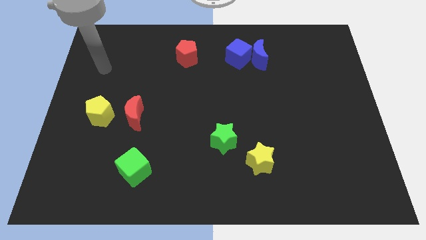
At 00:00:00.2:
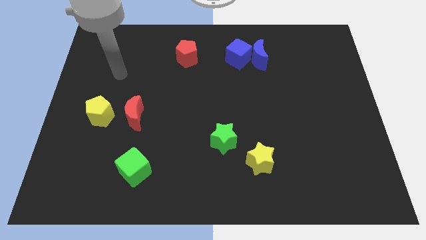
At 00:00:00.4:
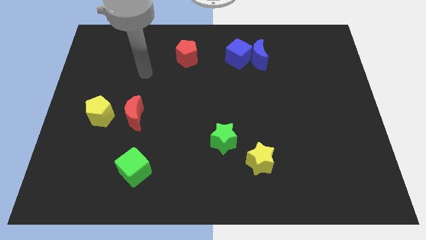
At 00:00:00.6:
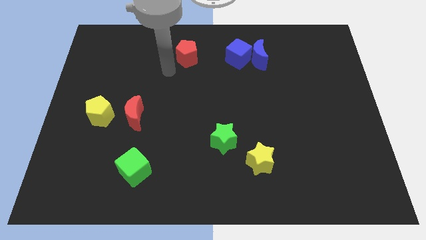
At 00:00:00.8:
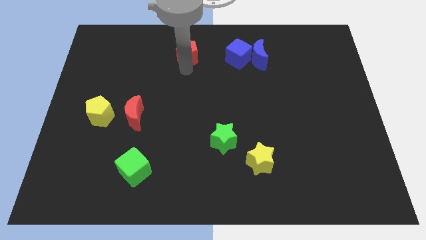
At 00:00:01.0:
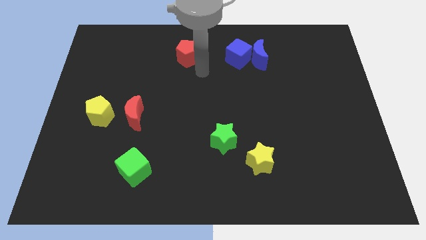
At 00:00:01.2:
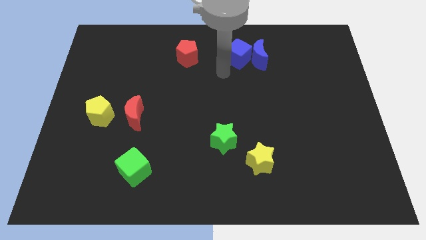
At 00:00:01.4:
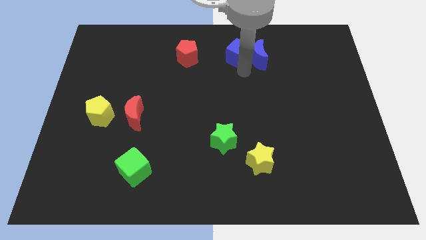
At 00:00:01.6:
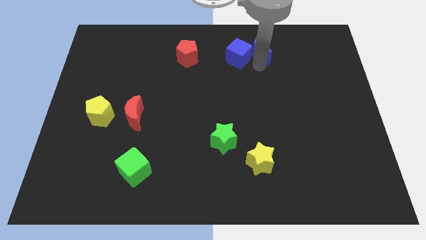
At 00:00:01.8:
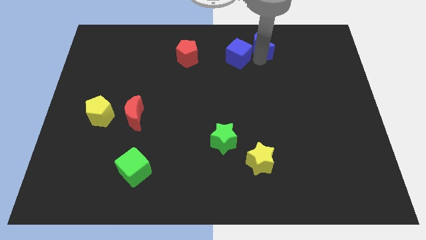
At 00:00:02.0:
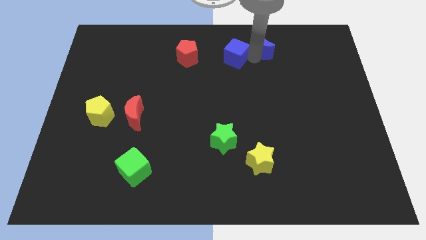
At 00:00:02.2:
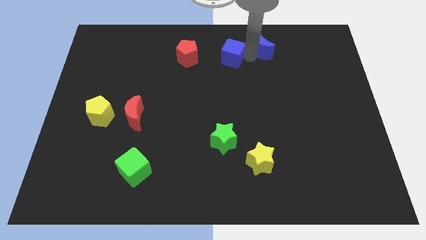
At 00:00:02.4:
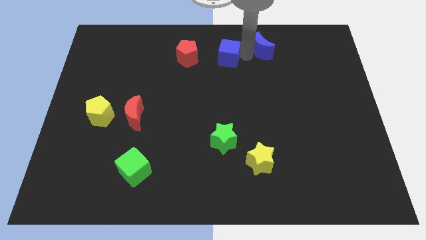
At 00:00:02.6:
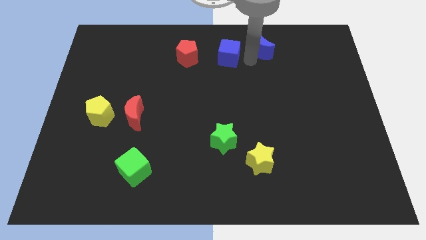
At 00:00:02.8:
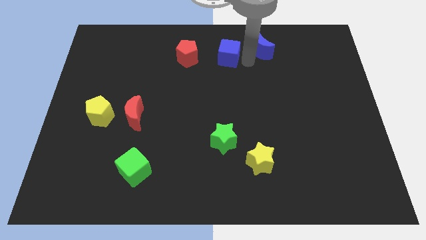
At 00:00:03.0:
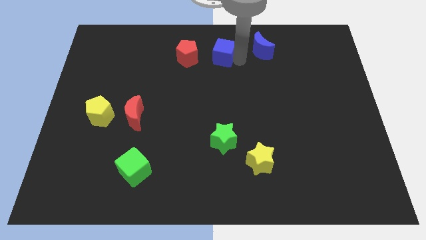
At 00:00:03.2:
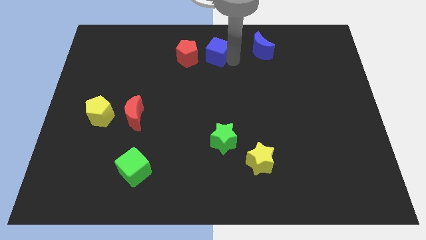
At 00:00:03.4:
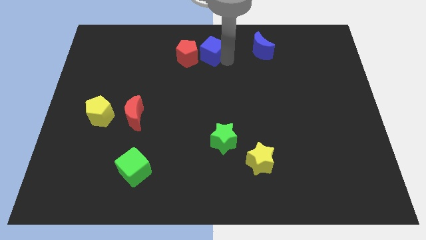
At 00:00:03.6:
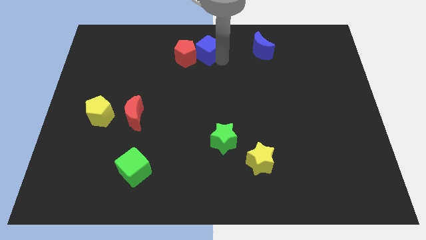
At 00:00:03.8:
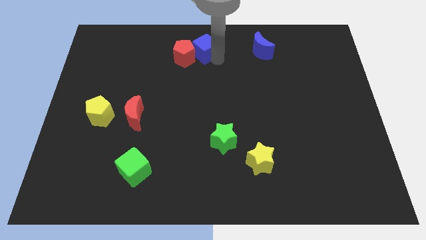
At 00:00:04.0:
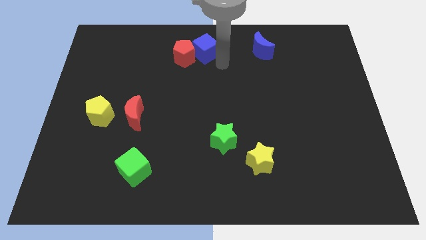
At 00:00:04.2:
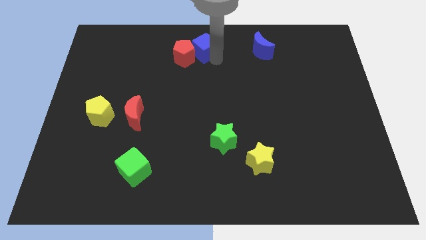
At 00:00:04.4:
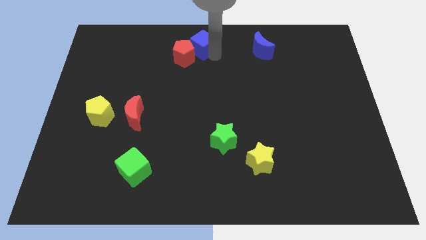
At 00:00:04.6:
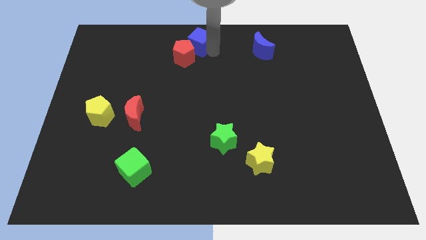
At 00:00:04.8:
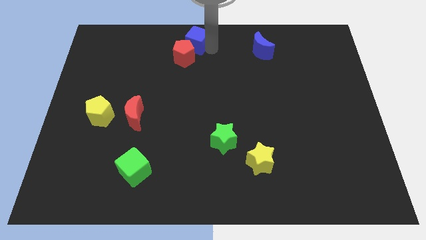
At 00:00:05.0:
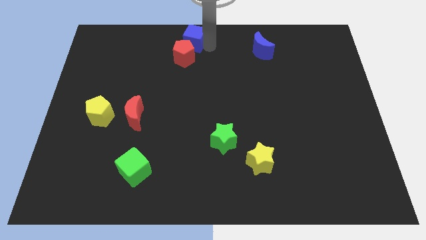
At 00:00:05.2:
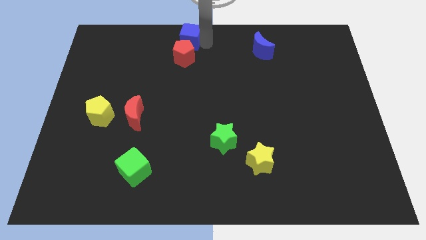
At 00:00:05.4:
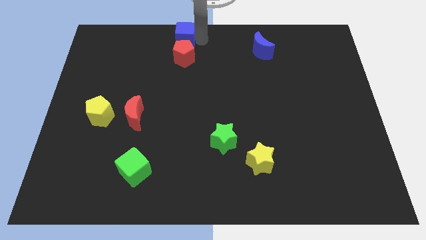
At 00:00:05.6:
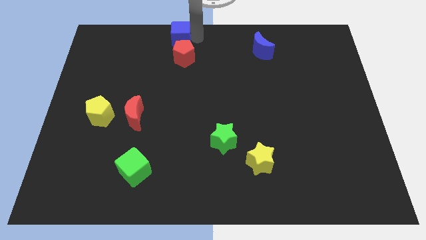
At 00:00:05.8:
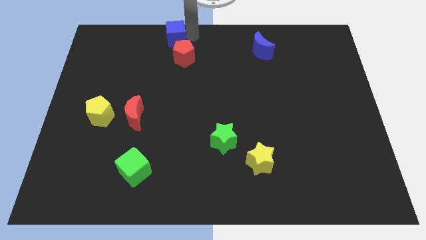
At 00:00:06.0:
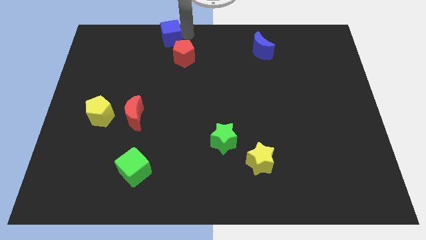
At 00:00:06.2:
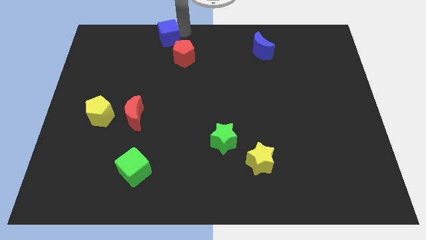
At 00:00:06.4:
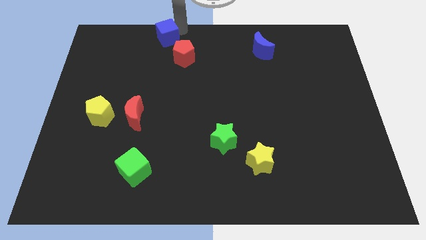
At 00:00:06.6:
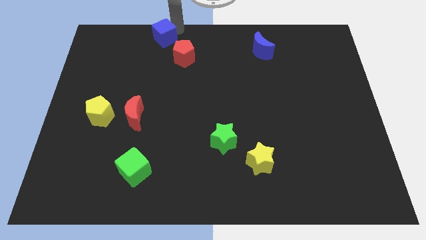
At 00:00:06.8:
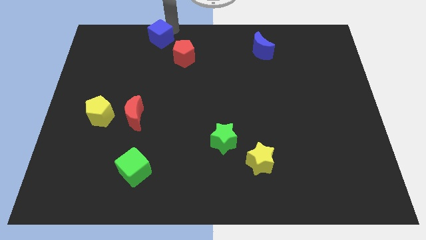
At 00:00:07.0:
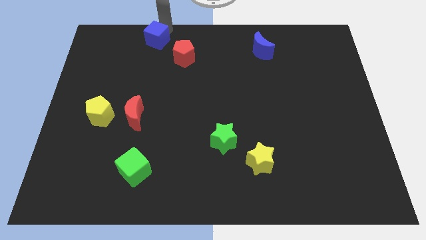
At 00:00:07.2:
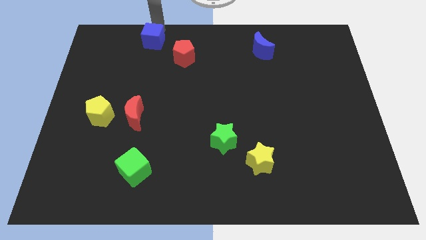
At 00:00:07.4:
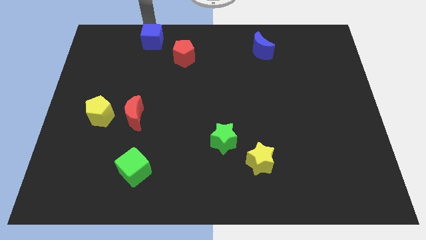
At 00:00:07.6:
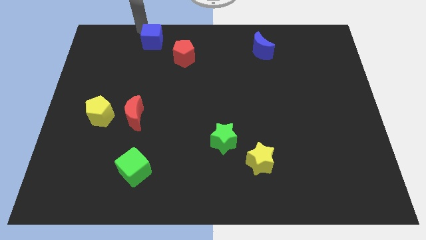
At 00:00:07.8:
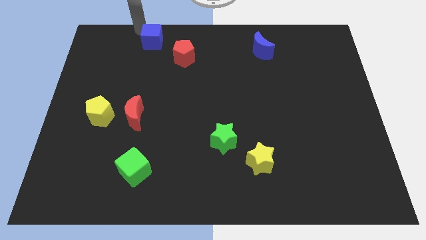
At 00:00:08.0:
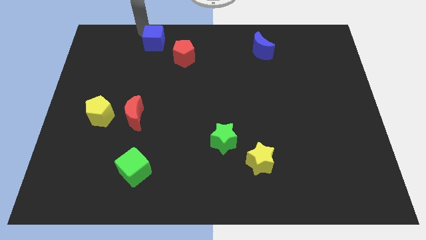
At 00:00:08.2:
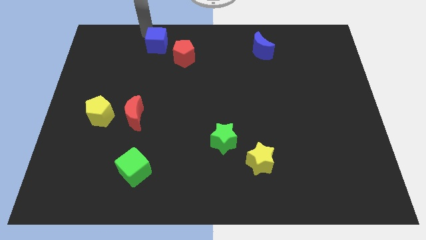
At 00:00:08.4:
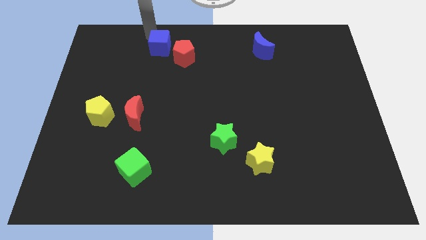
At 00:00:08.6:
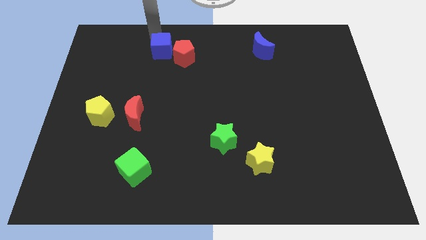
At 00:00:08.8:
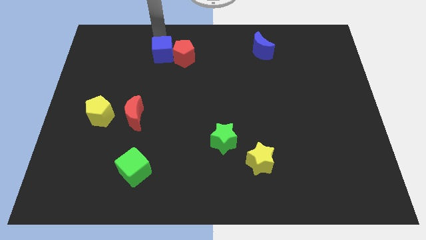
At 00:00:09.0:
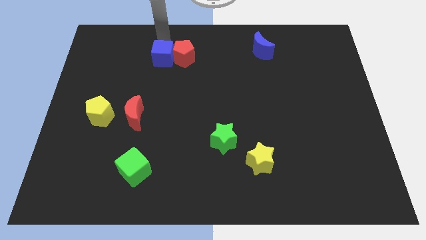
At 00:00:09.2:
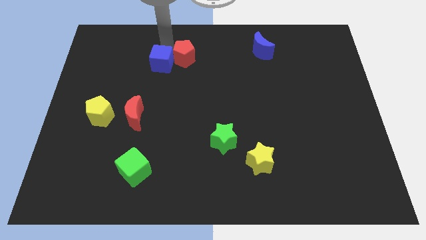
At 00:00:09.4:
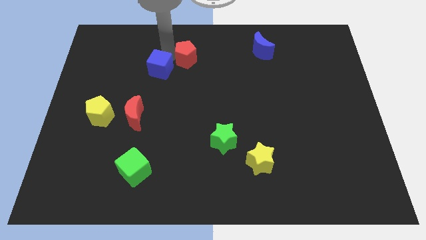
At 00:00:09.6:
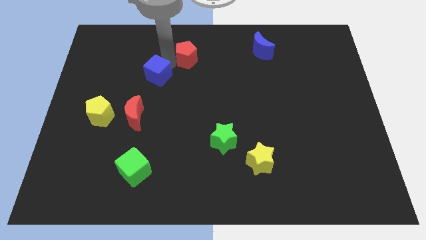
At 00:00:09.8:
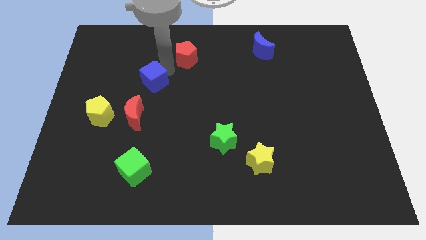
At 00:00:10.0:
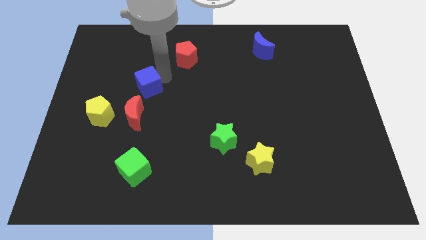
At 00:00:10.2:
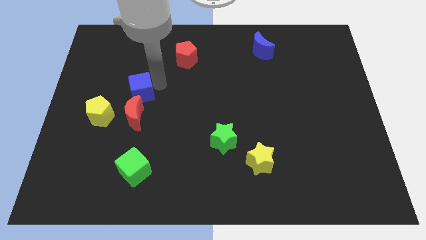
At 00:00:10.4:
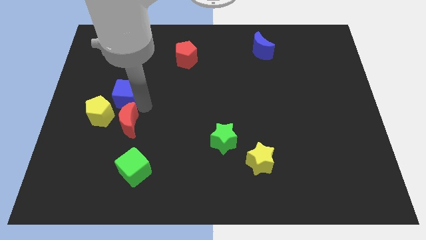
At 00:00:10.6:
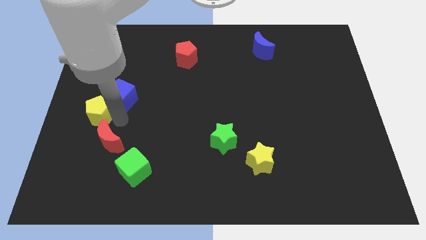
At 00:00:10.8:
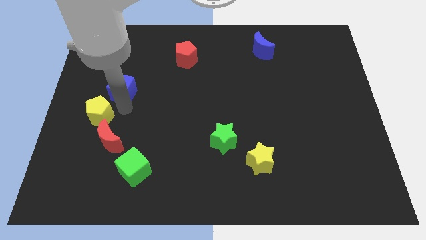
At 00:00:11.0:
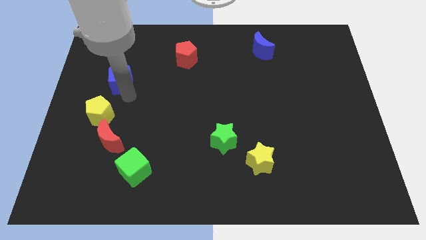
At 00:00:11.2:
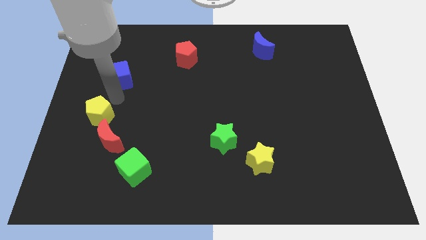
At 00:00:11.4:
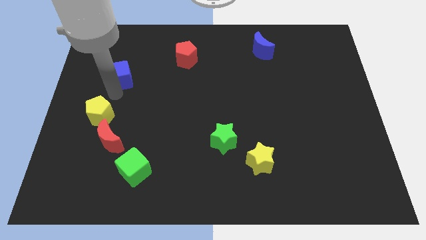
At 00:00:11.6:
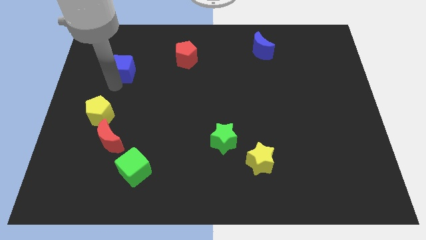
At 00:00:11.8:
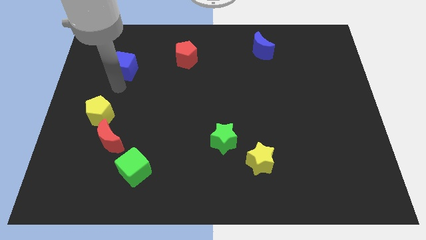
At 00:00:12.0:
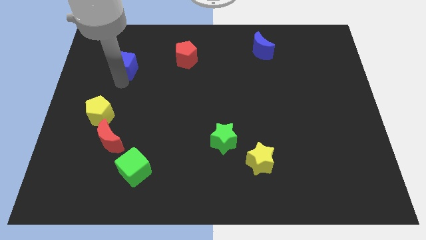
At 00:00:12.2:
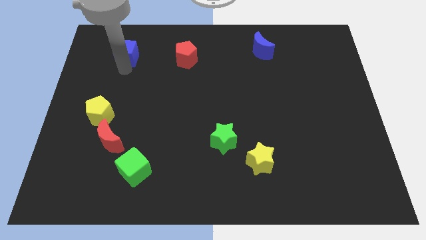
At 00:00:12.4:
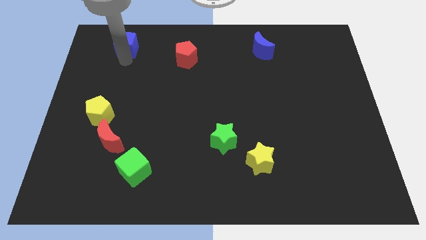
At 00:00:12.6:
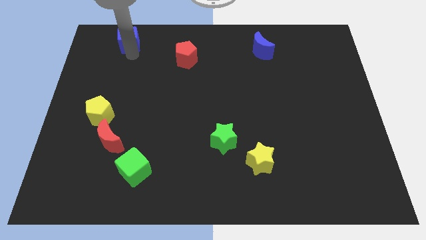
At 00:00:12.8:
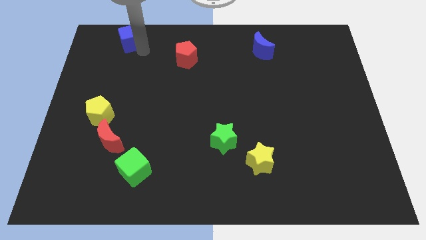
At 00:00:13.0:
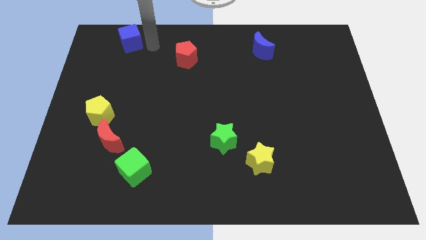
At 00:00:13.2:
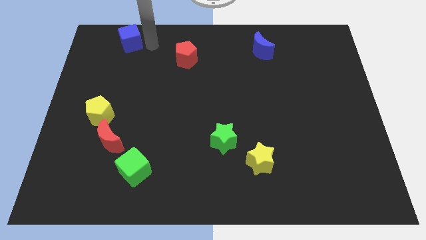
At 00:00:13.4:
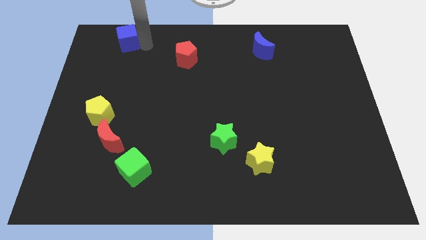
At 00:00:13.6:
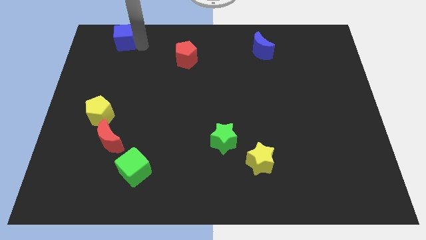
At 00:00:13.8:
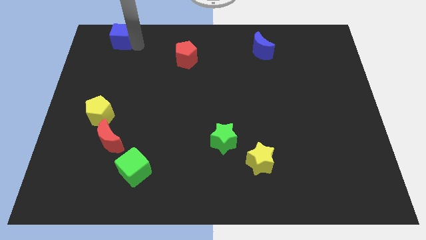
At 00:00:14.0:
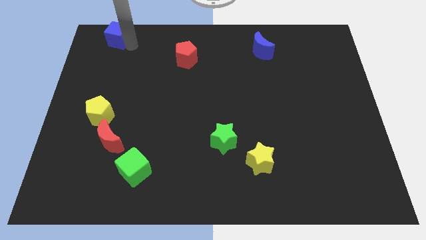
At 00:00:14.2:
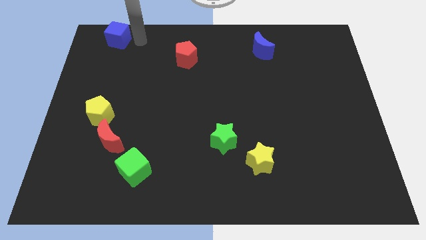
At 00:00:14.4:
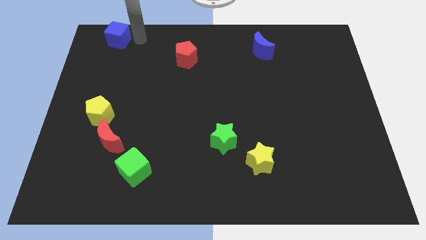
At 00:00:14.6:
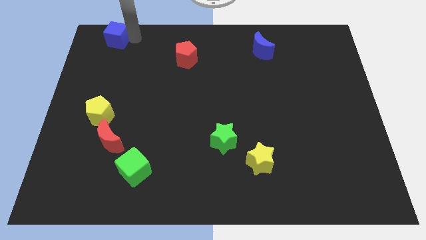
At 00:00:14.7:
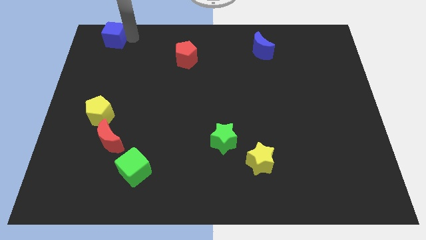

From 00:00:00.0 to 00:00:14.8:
move the blue cube to the top left of the board
